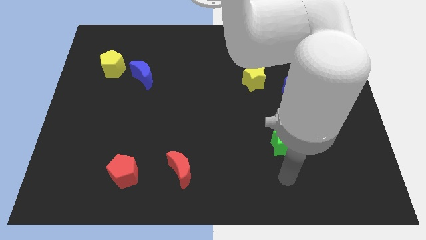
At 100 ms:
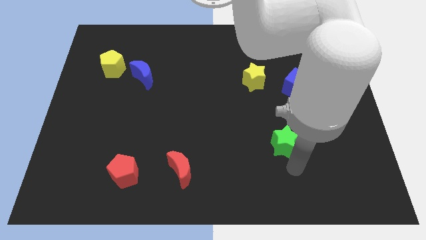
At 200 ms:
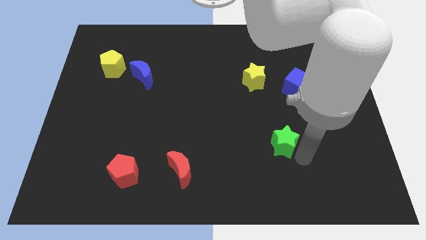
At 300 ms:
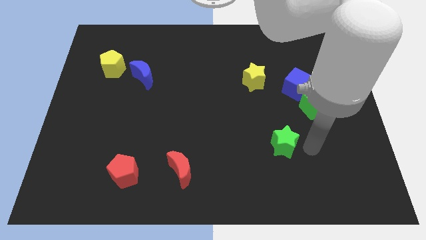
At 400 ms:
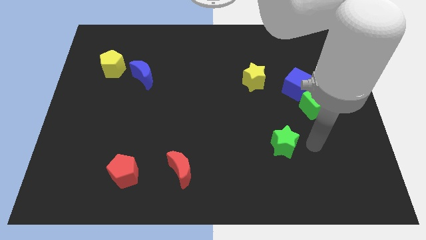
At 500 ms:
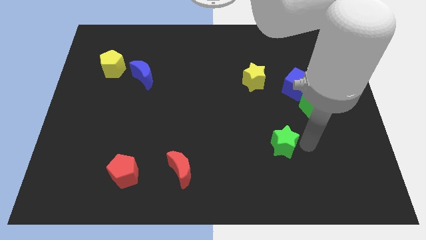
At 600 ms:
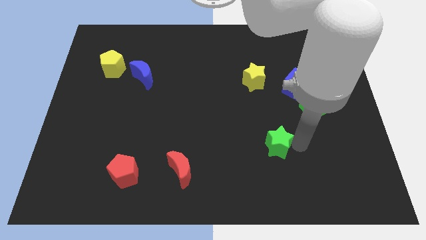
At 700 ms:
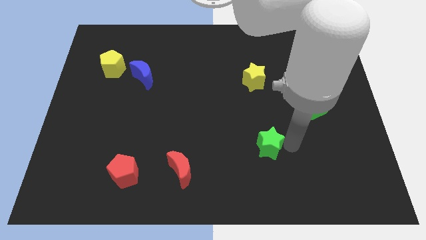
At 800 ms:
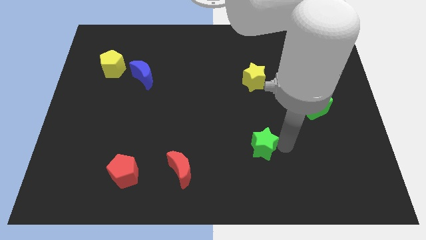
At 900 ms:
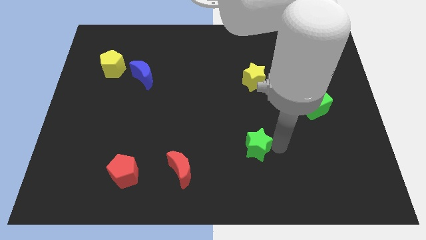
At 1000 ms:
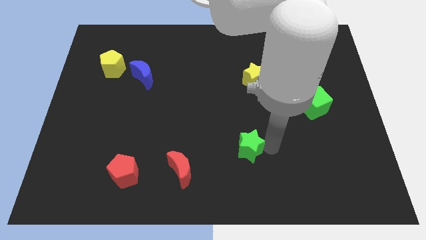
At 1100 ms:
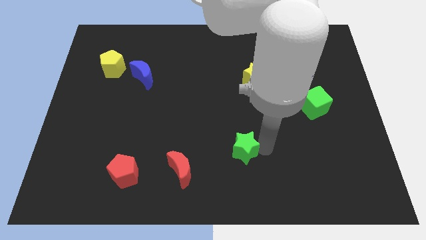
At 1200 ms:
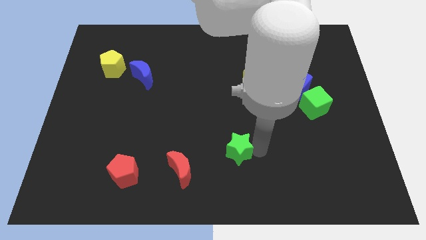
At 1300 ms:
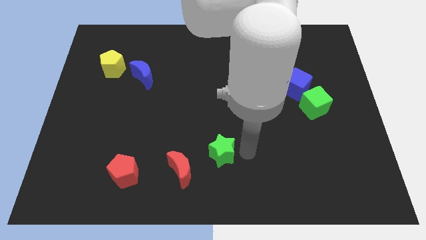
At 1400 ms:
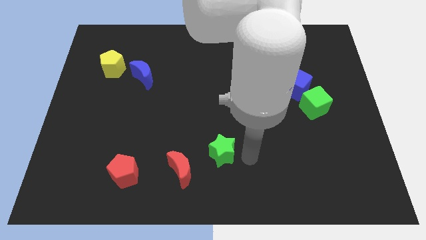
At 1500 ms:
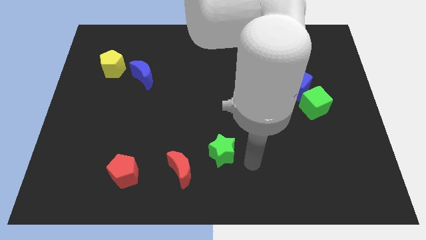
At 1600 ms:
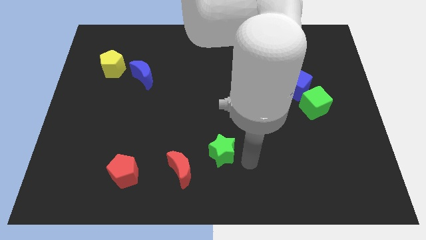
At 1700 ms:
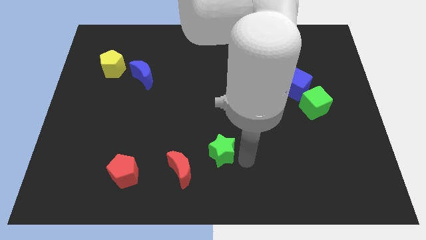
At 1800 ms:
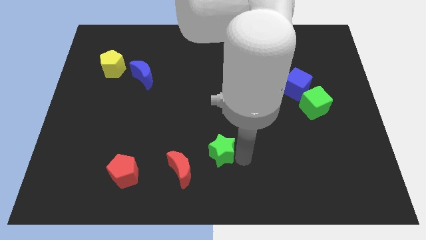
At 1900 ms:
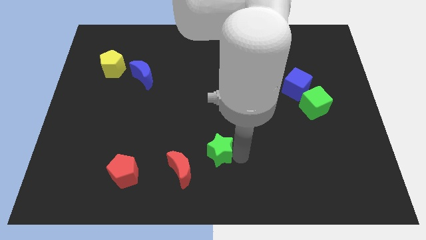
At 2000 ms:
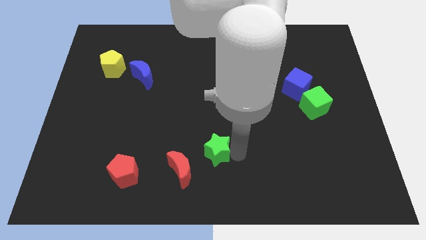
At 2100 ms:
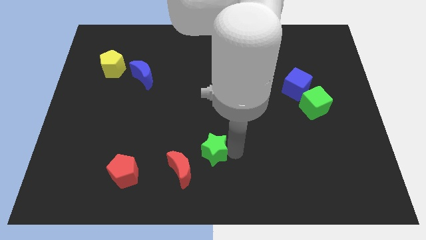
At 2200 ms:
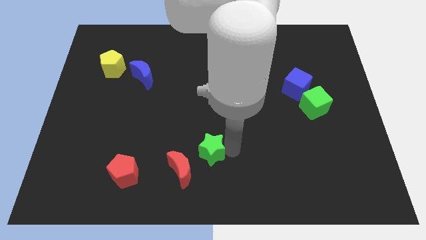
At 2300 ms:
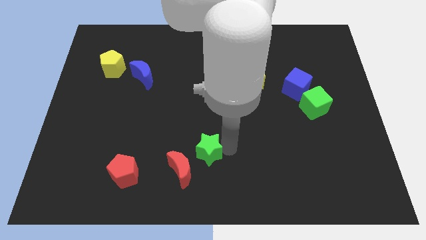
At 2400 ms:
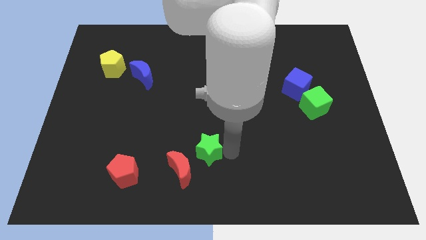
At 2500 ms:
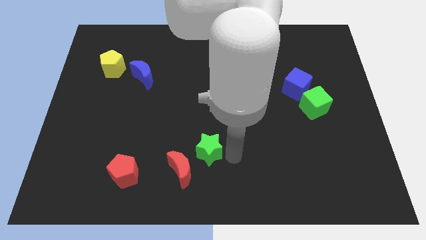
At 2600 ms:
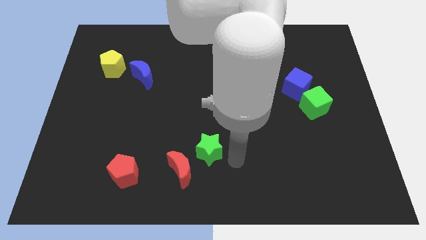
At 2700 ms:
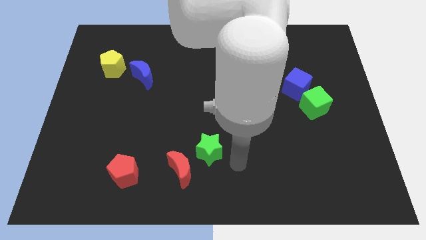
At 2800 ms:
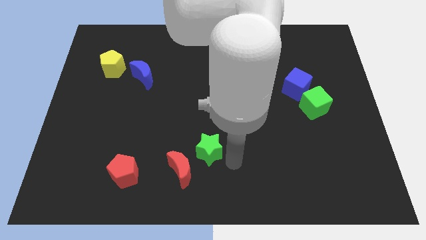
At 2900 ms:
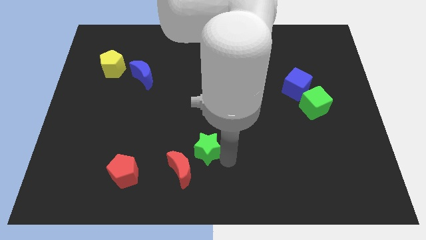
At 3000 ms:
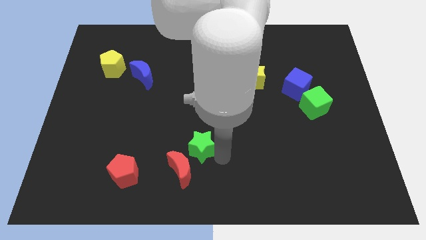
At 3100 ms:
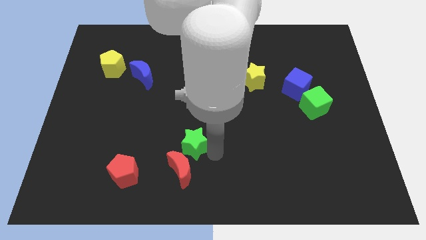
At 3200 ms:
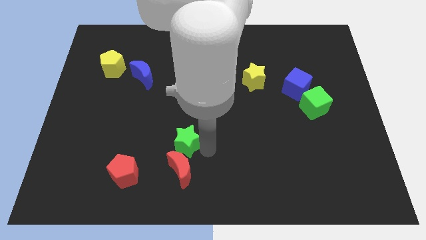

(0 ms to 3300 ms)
push the green star to the left

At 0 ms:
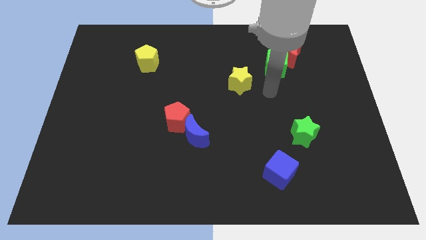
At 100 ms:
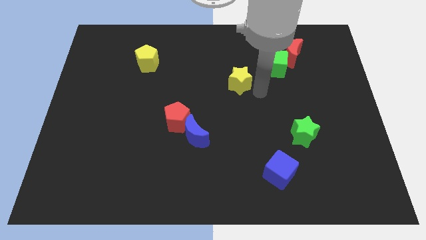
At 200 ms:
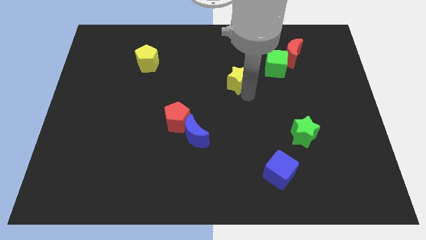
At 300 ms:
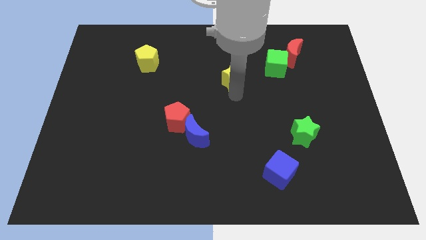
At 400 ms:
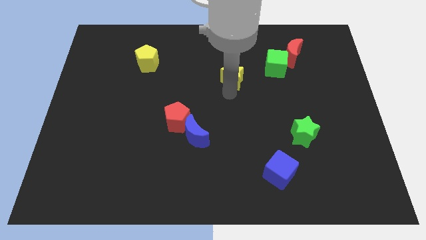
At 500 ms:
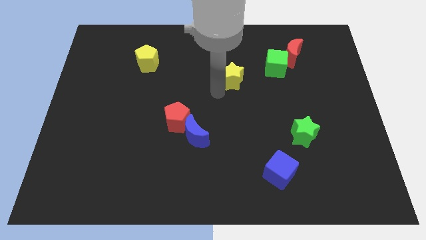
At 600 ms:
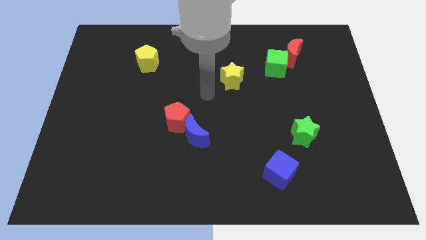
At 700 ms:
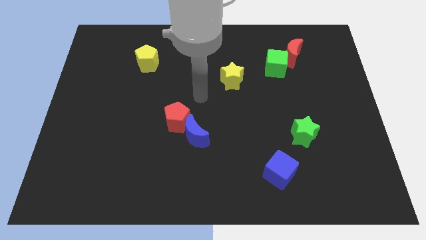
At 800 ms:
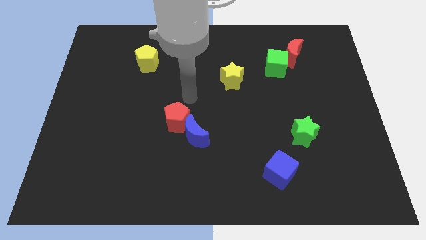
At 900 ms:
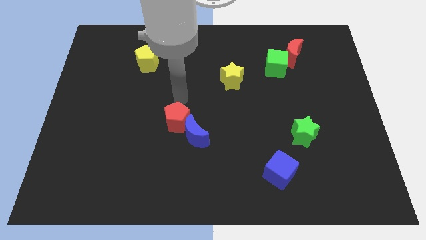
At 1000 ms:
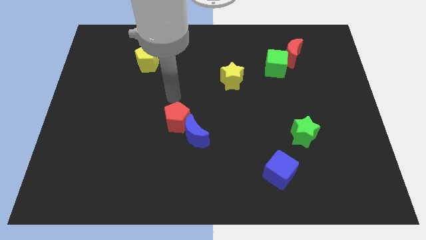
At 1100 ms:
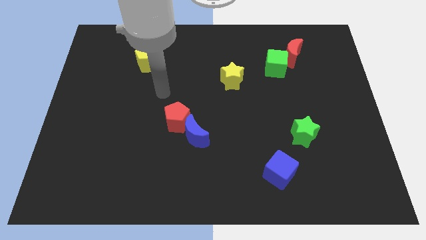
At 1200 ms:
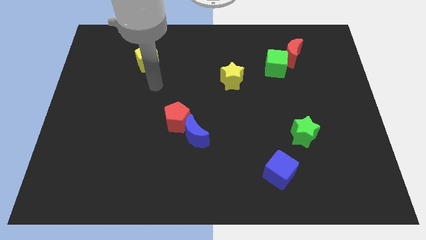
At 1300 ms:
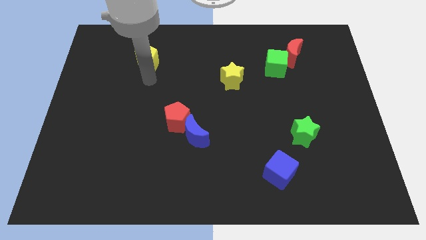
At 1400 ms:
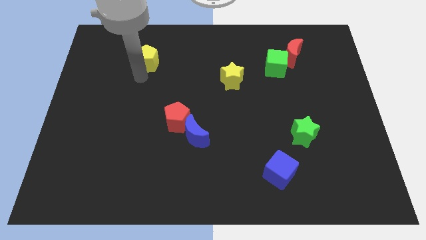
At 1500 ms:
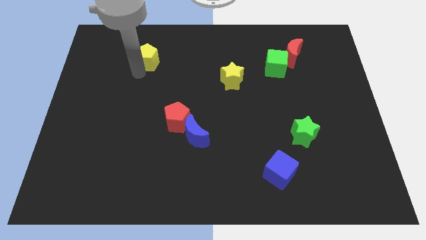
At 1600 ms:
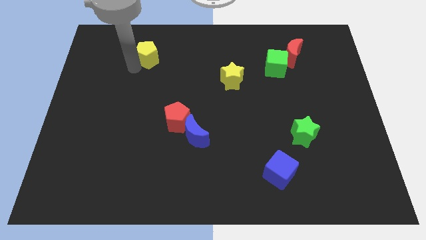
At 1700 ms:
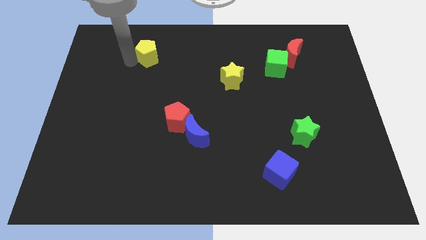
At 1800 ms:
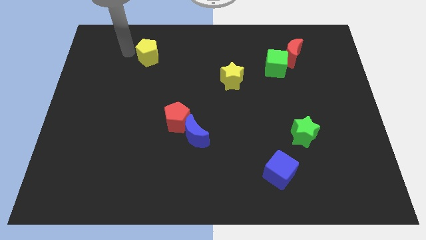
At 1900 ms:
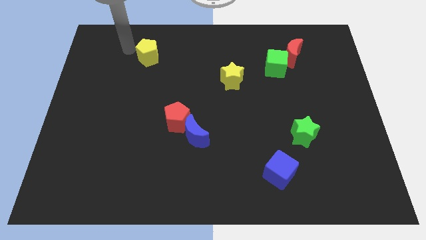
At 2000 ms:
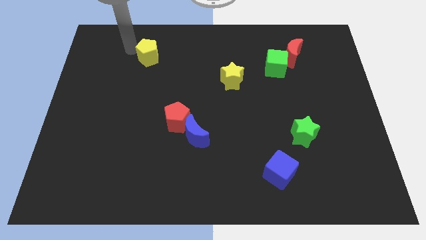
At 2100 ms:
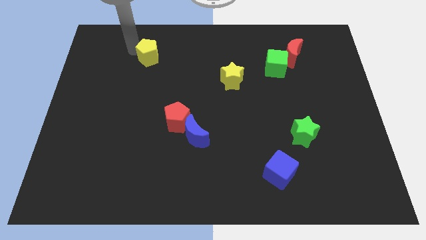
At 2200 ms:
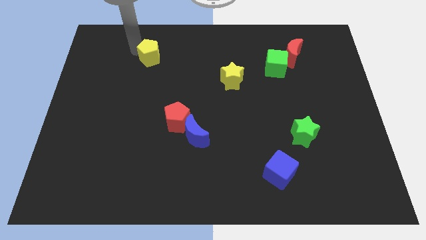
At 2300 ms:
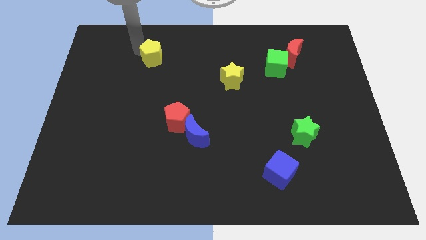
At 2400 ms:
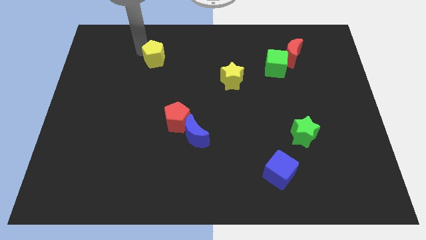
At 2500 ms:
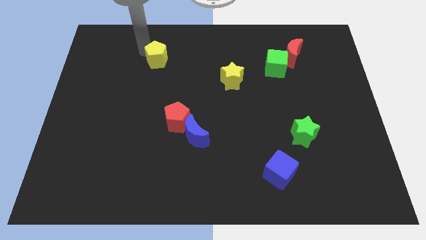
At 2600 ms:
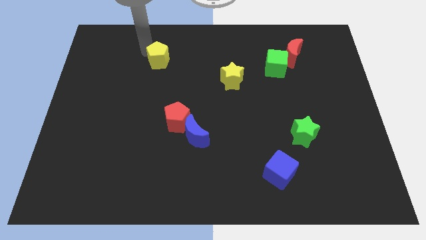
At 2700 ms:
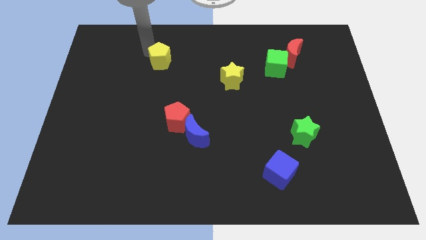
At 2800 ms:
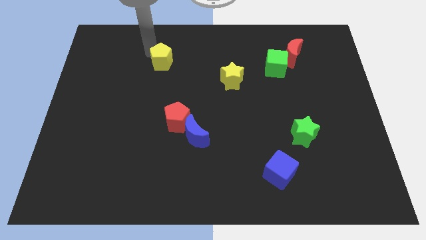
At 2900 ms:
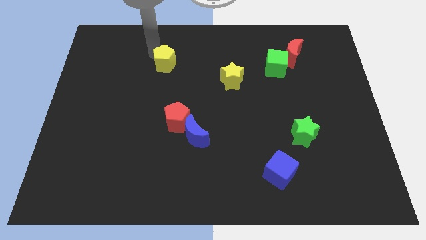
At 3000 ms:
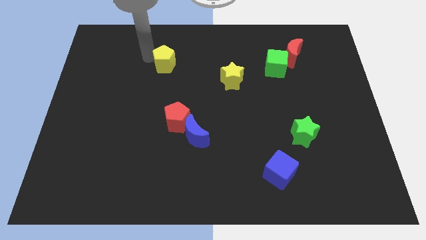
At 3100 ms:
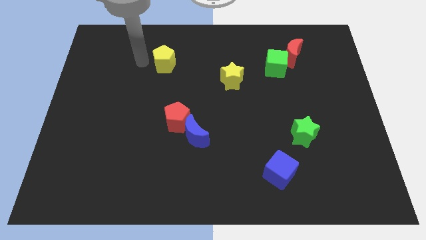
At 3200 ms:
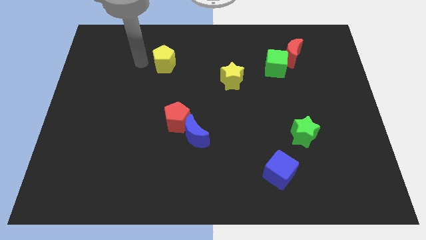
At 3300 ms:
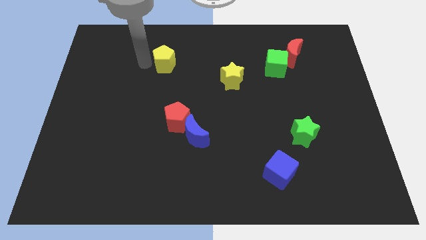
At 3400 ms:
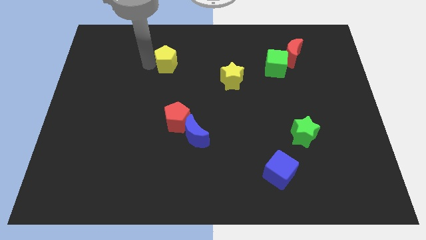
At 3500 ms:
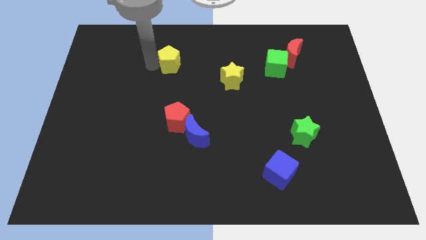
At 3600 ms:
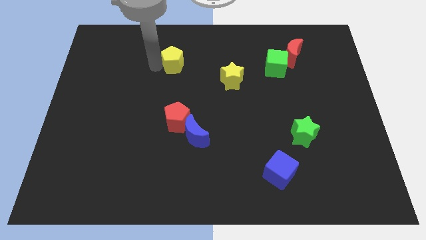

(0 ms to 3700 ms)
slightly slide the yellow pentagon to the right

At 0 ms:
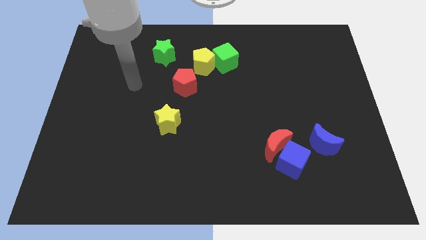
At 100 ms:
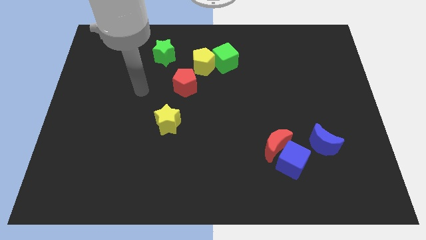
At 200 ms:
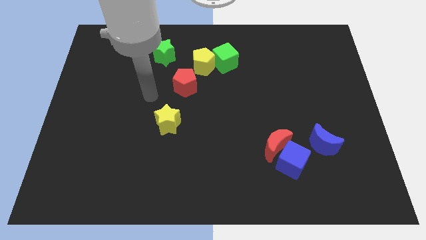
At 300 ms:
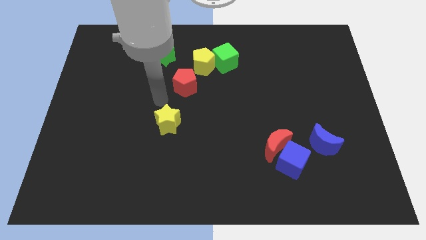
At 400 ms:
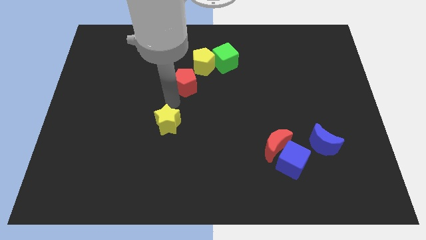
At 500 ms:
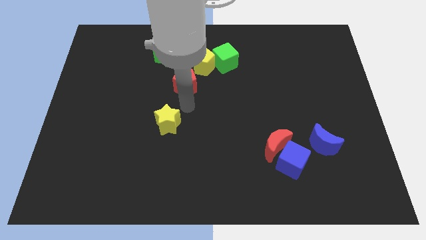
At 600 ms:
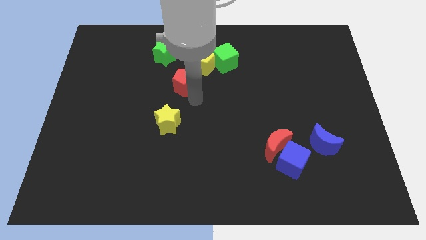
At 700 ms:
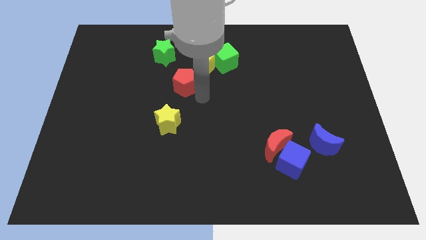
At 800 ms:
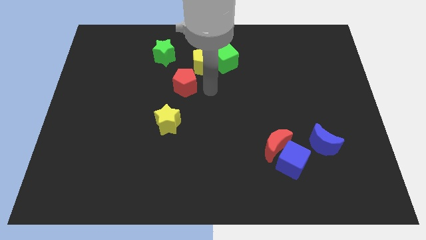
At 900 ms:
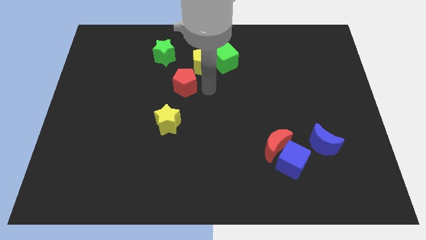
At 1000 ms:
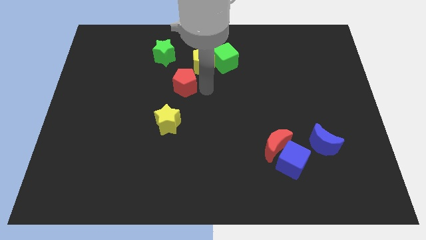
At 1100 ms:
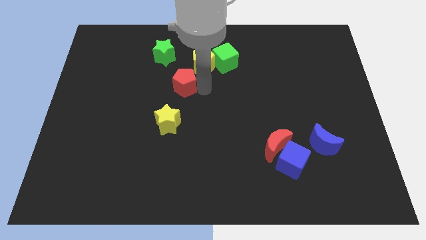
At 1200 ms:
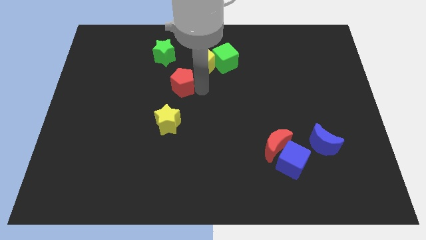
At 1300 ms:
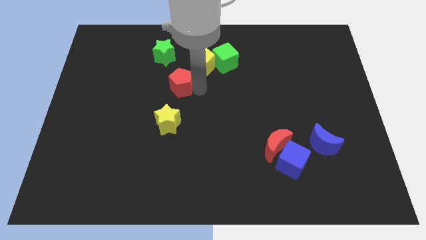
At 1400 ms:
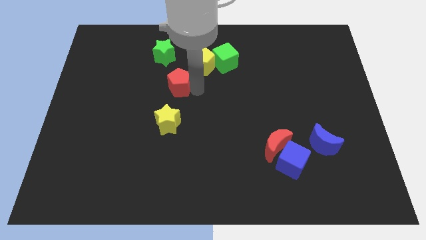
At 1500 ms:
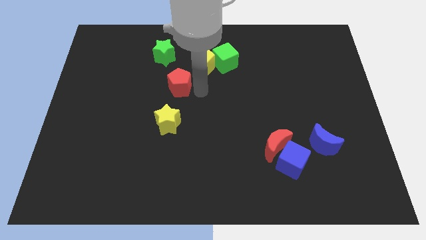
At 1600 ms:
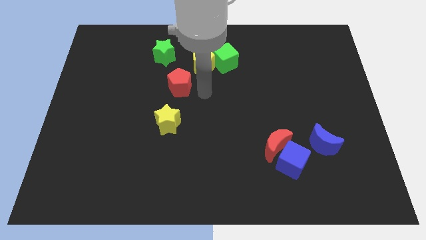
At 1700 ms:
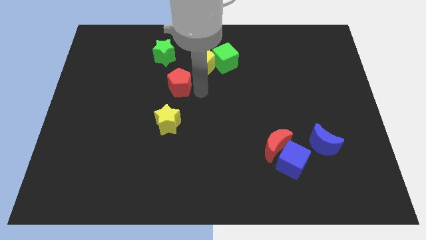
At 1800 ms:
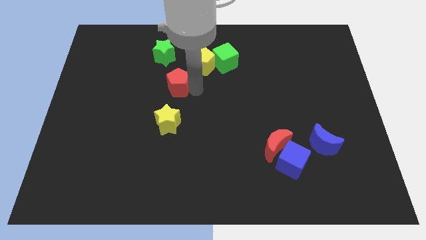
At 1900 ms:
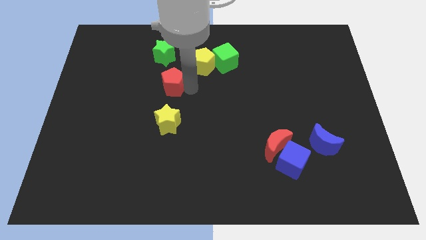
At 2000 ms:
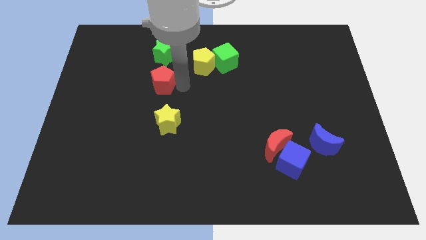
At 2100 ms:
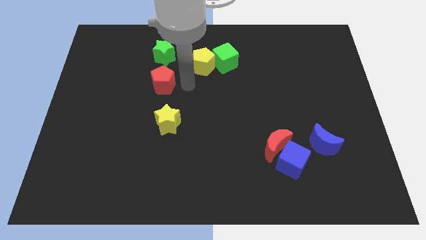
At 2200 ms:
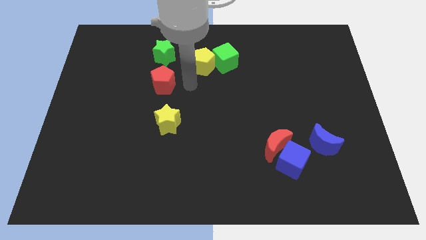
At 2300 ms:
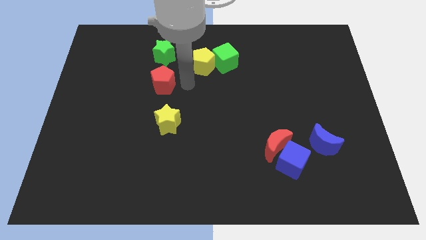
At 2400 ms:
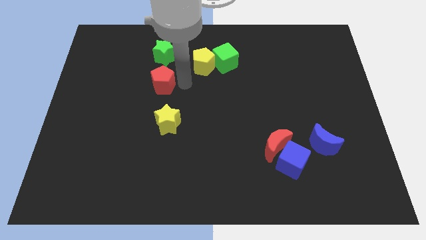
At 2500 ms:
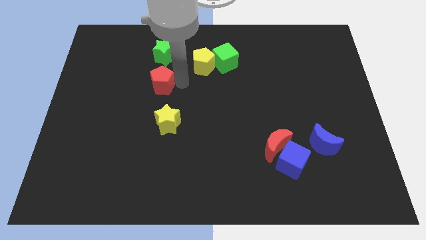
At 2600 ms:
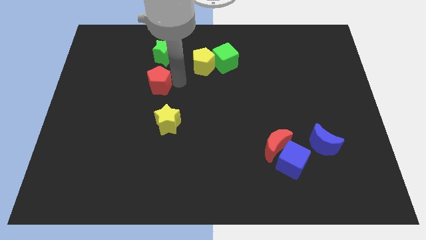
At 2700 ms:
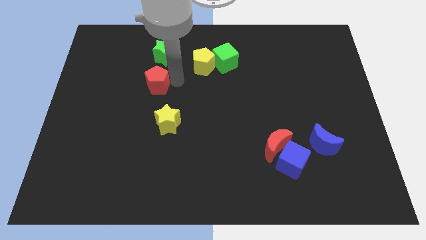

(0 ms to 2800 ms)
slide the red pentagon to the left a bit
